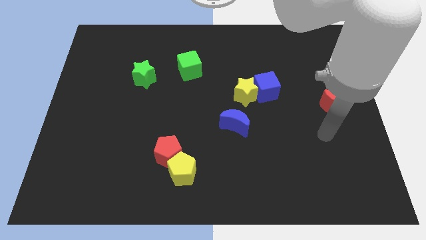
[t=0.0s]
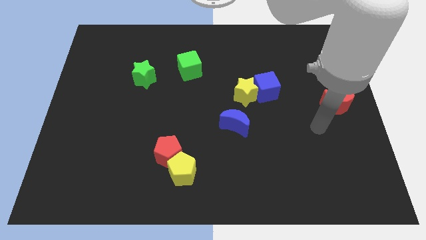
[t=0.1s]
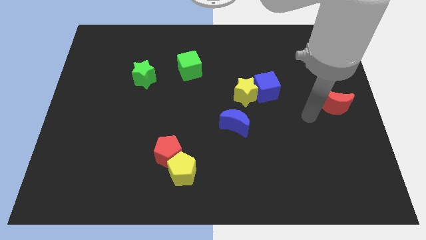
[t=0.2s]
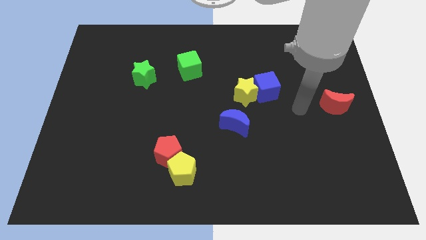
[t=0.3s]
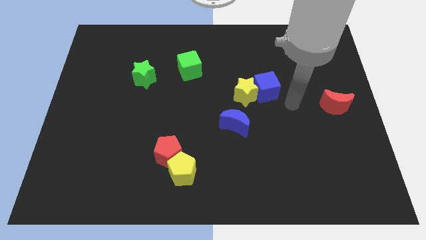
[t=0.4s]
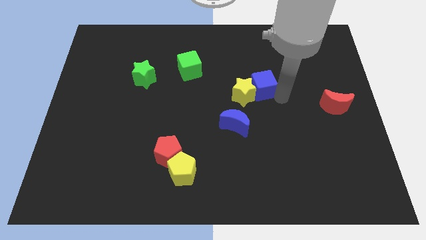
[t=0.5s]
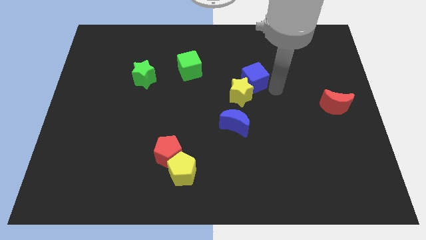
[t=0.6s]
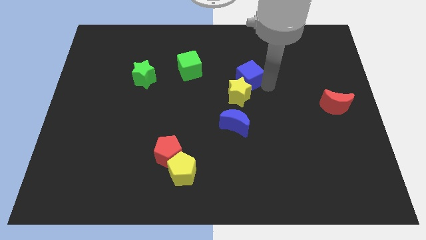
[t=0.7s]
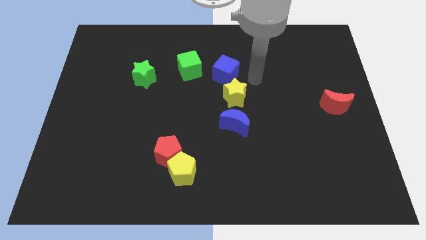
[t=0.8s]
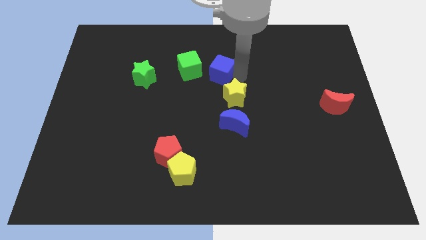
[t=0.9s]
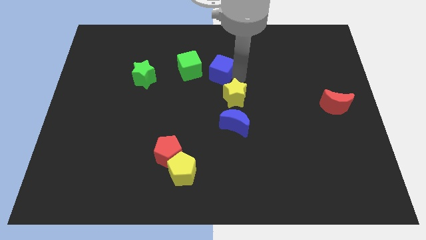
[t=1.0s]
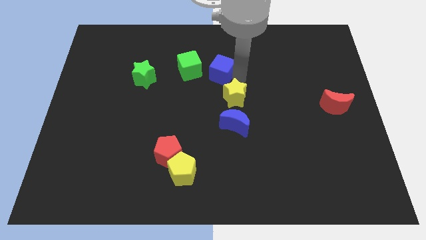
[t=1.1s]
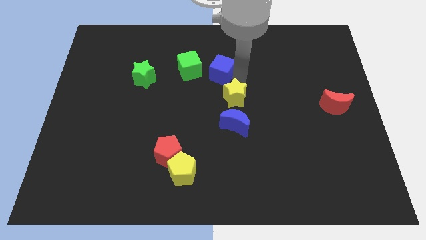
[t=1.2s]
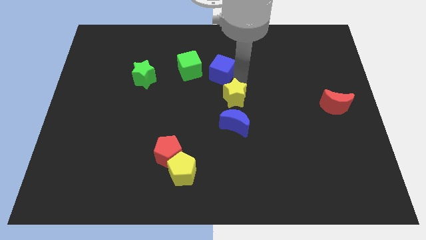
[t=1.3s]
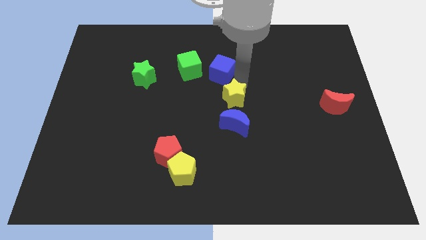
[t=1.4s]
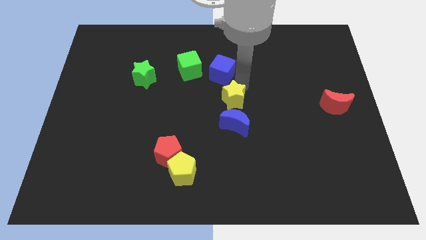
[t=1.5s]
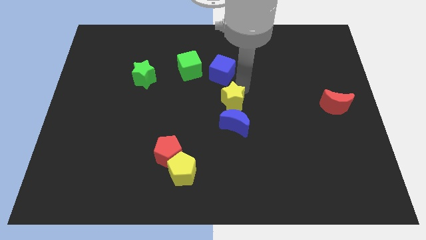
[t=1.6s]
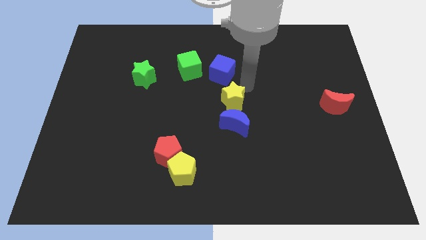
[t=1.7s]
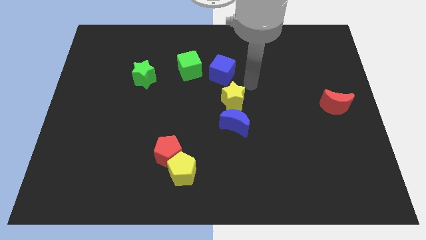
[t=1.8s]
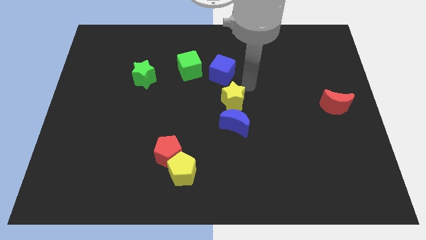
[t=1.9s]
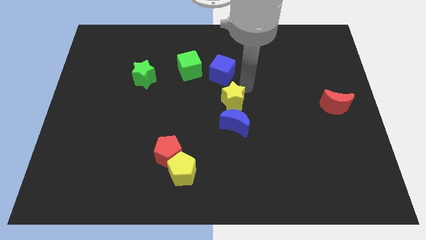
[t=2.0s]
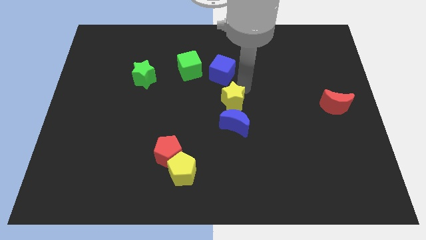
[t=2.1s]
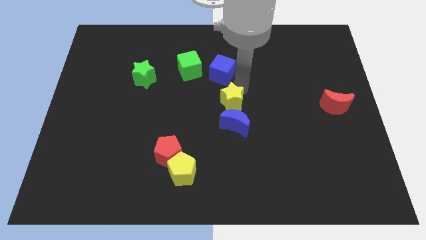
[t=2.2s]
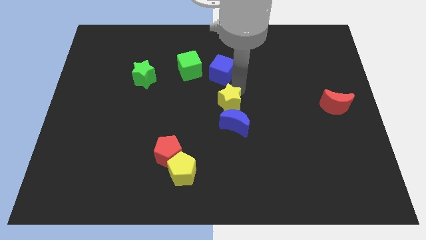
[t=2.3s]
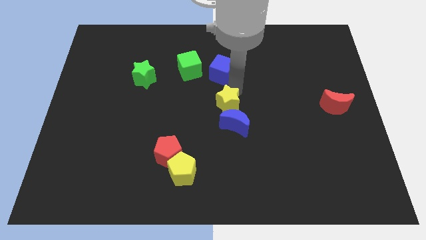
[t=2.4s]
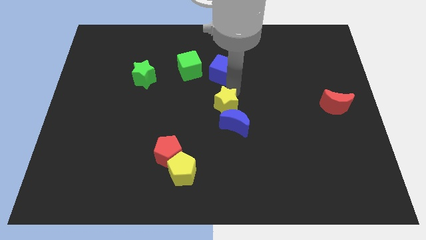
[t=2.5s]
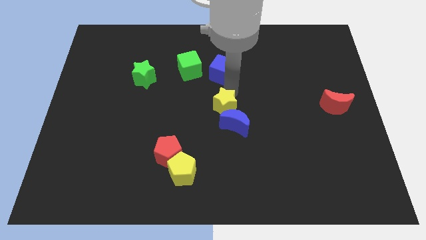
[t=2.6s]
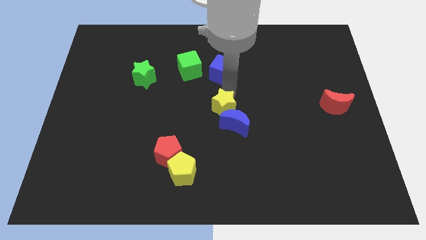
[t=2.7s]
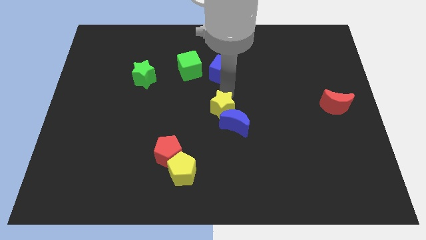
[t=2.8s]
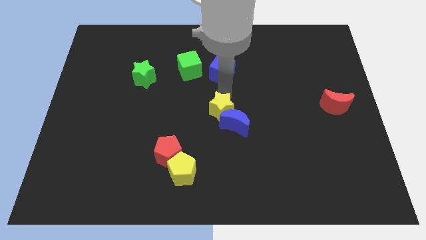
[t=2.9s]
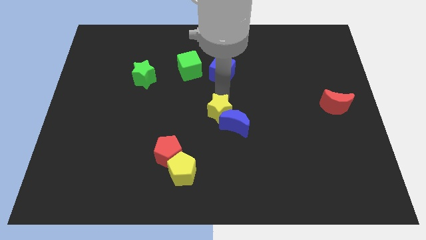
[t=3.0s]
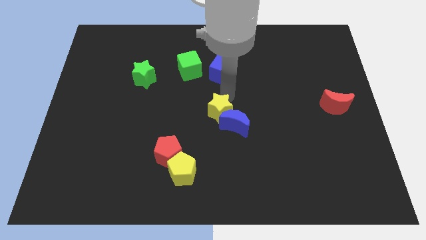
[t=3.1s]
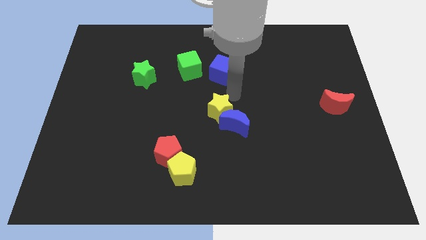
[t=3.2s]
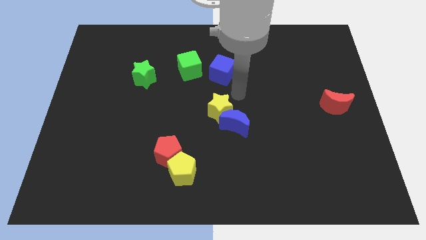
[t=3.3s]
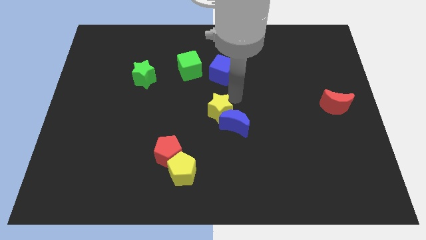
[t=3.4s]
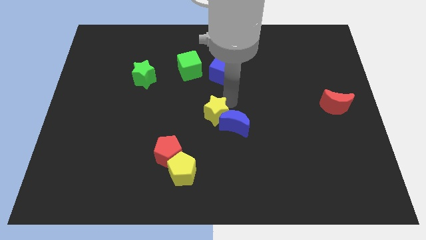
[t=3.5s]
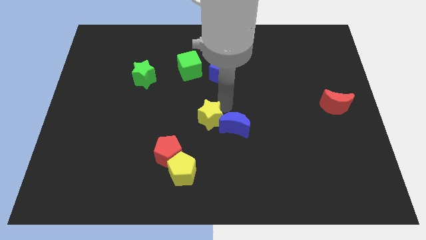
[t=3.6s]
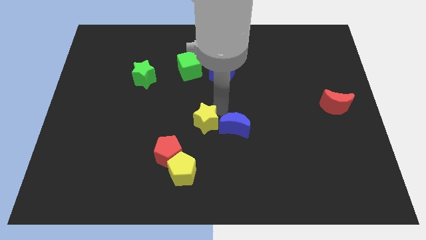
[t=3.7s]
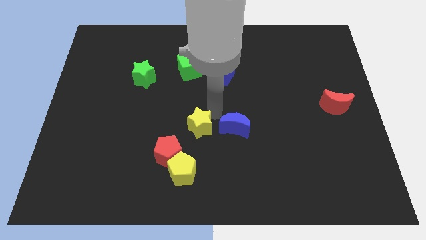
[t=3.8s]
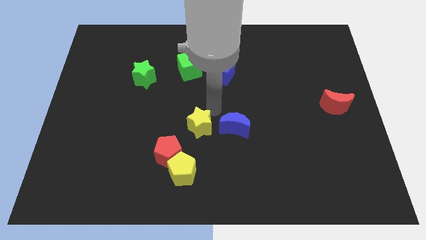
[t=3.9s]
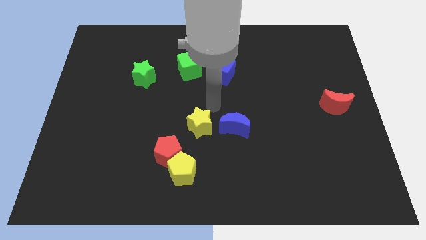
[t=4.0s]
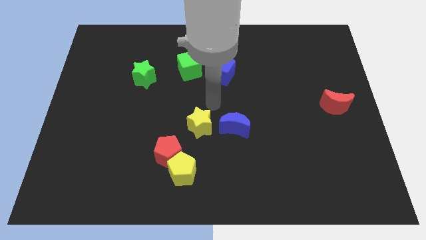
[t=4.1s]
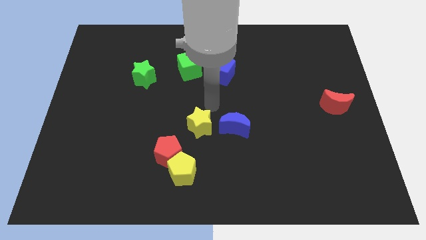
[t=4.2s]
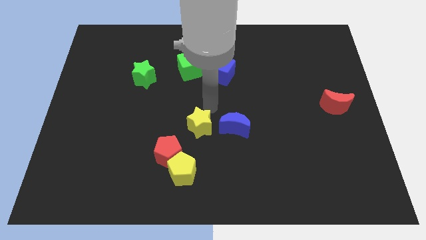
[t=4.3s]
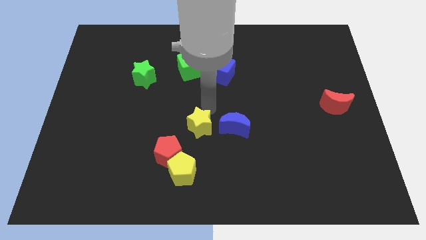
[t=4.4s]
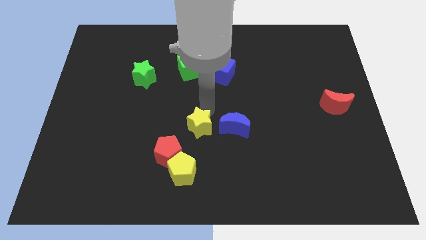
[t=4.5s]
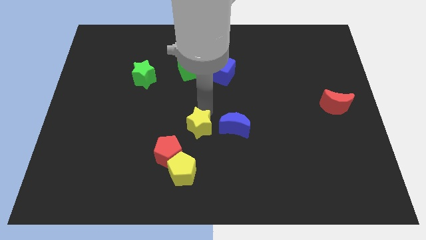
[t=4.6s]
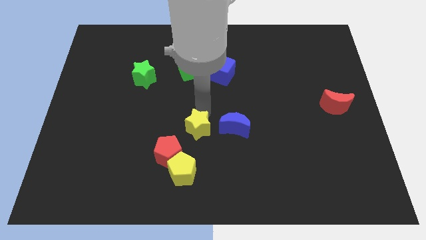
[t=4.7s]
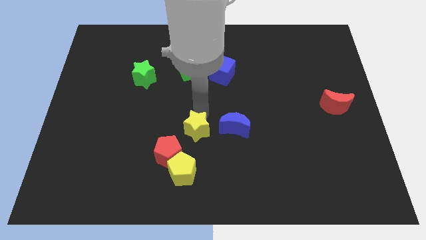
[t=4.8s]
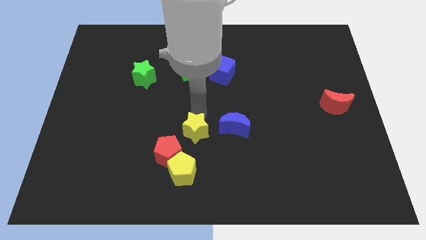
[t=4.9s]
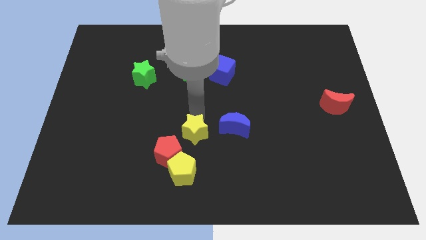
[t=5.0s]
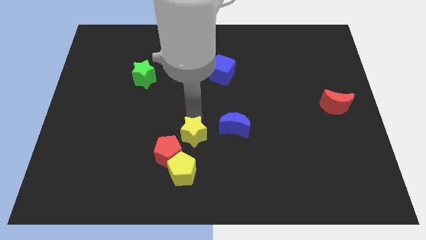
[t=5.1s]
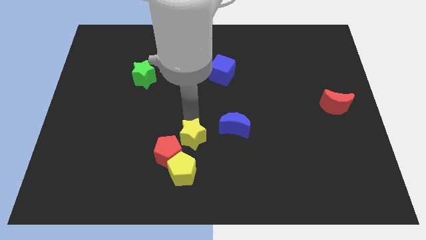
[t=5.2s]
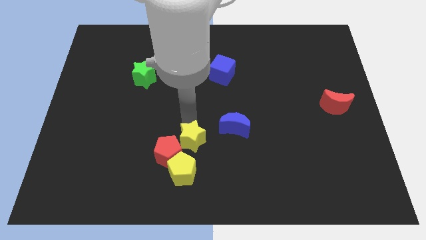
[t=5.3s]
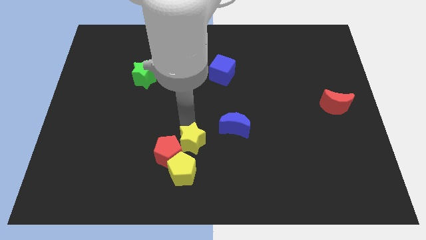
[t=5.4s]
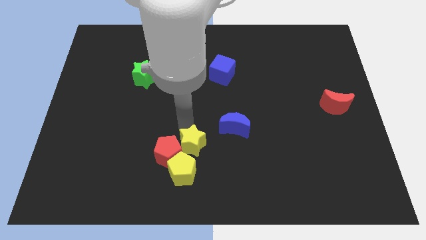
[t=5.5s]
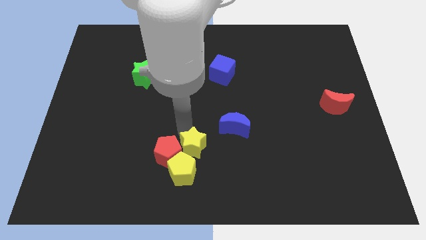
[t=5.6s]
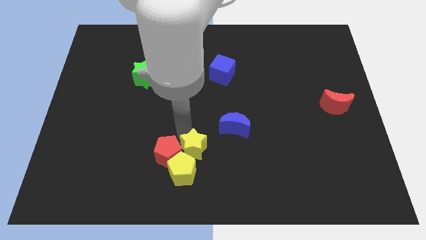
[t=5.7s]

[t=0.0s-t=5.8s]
put the yellow star close to the yellow pentagon
